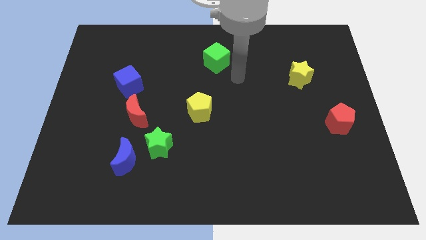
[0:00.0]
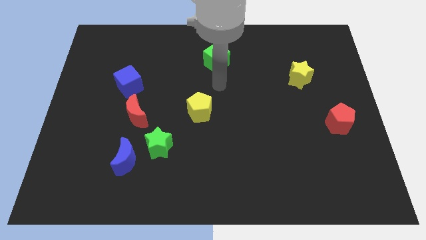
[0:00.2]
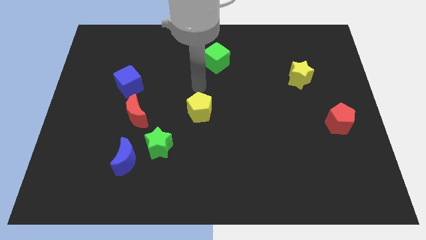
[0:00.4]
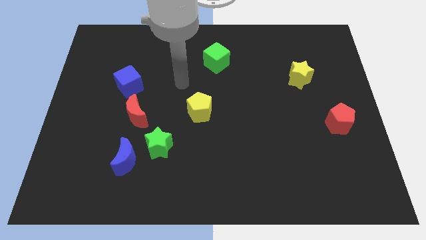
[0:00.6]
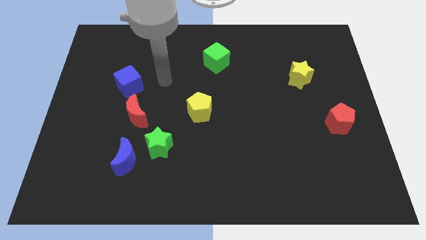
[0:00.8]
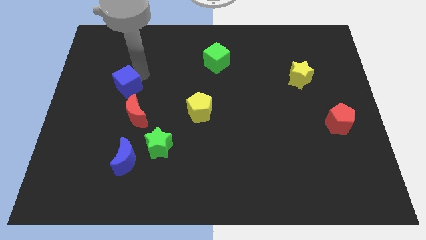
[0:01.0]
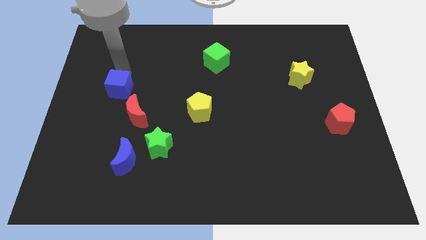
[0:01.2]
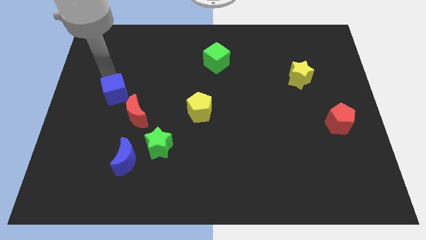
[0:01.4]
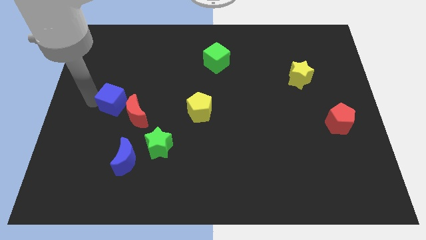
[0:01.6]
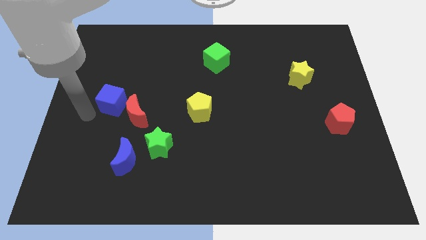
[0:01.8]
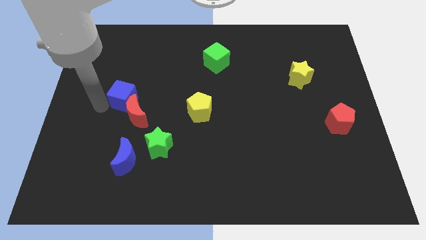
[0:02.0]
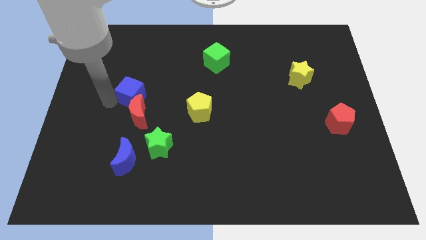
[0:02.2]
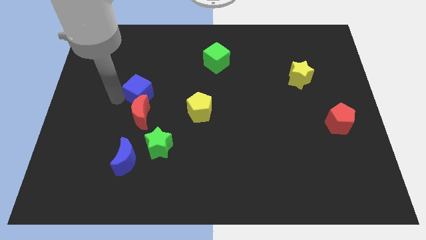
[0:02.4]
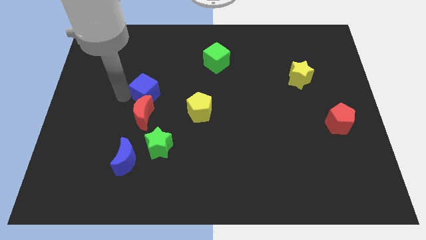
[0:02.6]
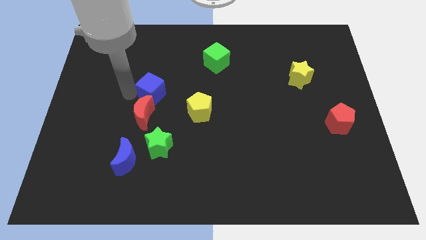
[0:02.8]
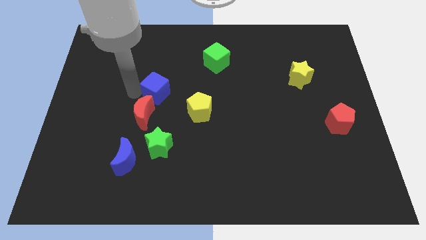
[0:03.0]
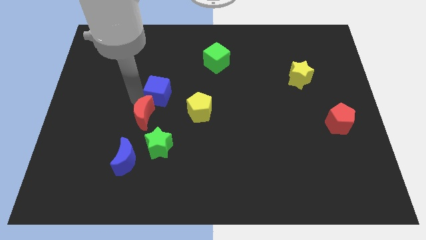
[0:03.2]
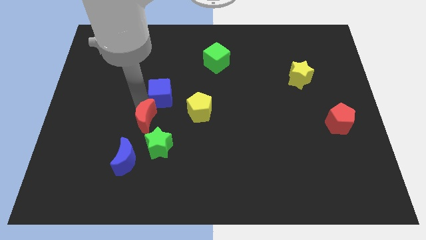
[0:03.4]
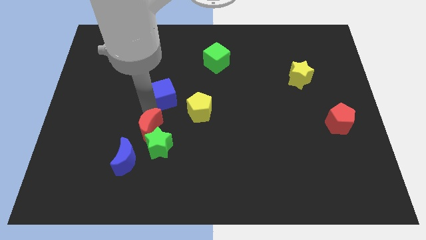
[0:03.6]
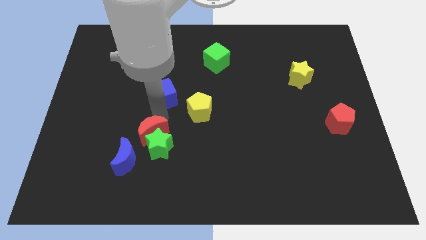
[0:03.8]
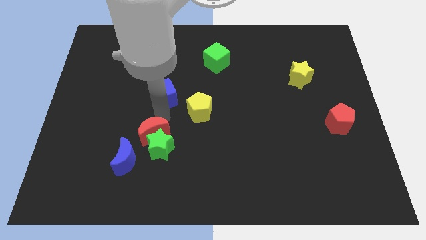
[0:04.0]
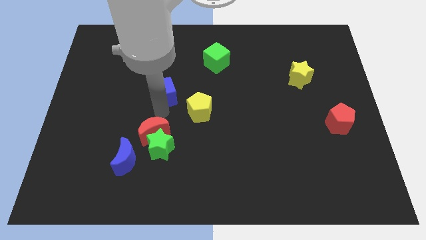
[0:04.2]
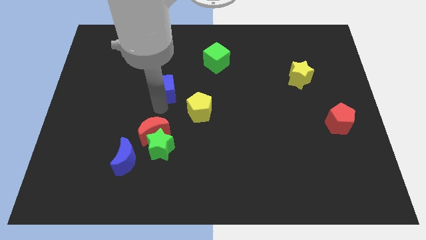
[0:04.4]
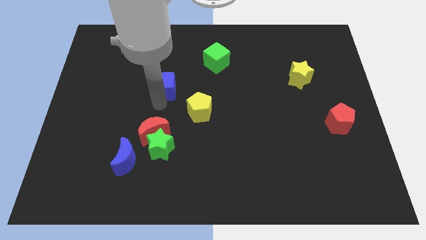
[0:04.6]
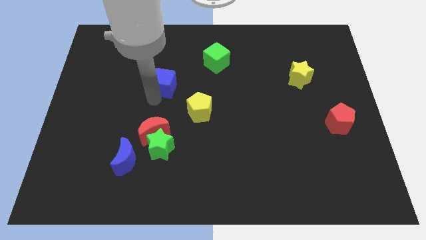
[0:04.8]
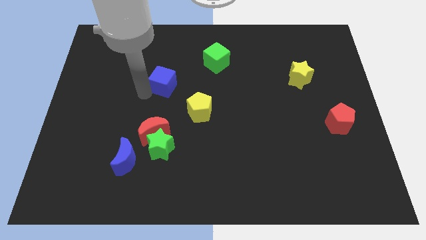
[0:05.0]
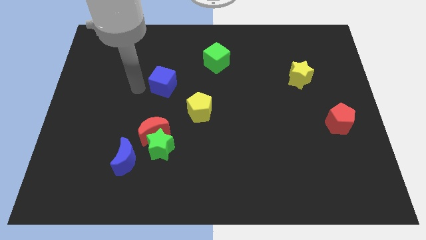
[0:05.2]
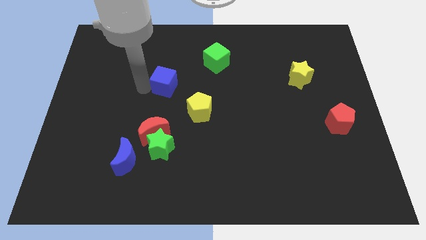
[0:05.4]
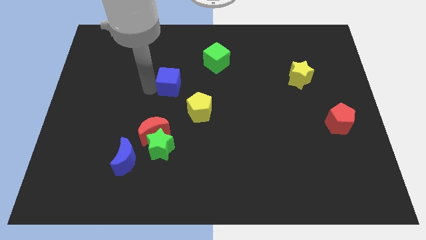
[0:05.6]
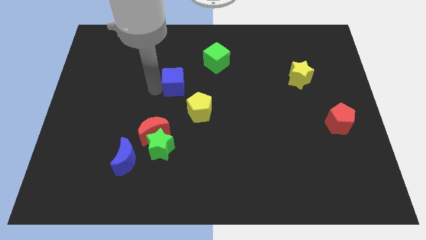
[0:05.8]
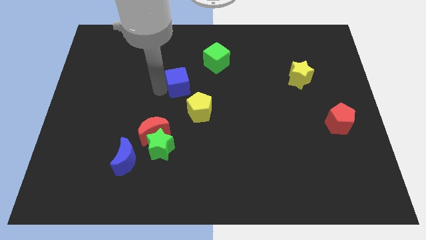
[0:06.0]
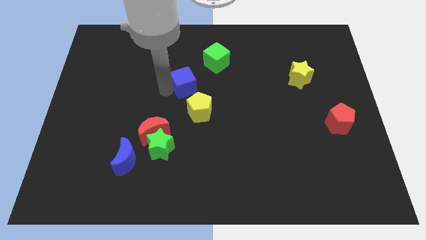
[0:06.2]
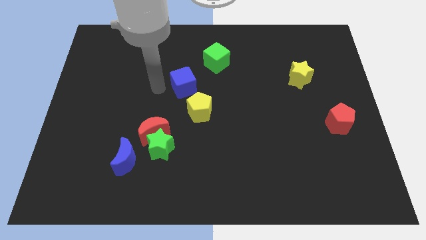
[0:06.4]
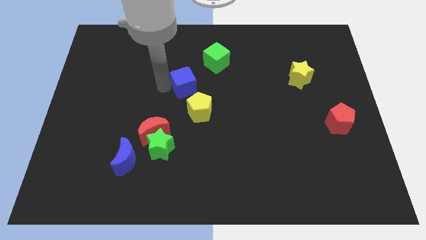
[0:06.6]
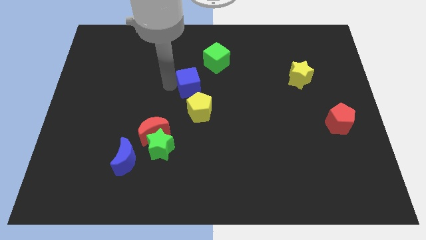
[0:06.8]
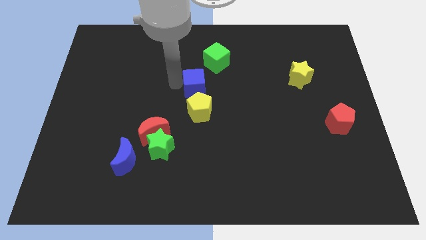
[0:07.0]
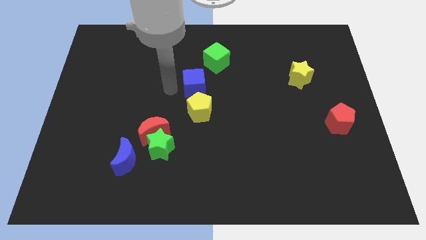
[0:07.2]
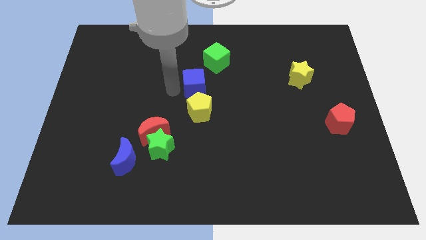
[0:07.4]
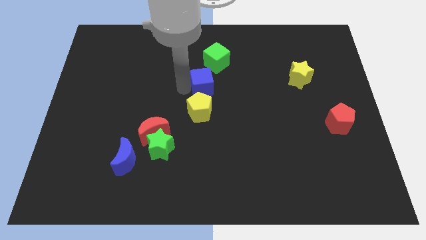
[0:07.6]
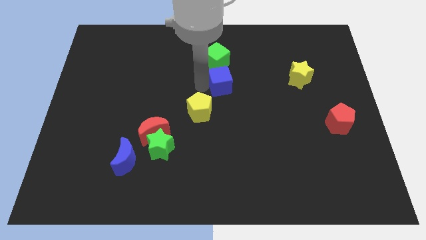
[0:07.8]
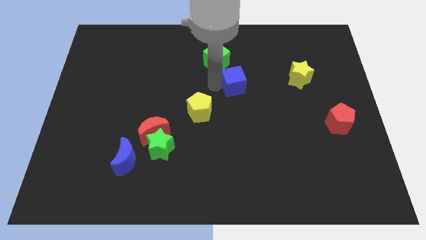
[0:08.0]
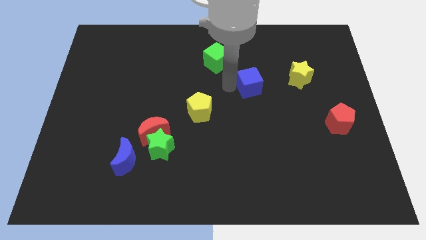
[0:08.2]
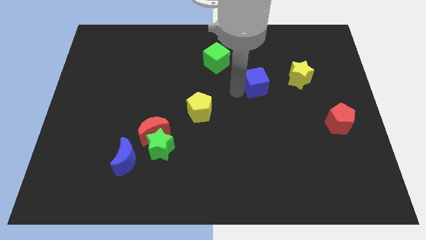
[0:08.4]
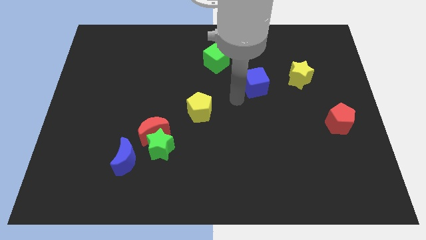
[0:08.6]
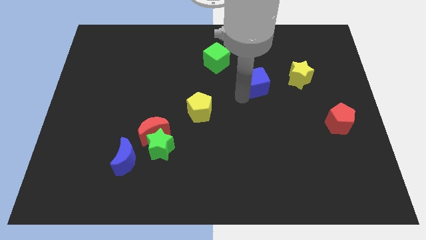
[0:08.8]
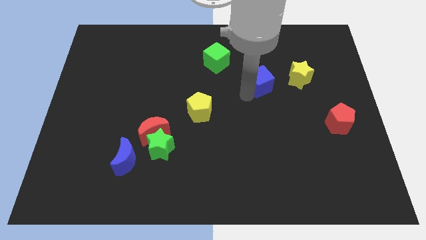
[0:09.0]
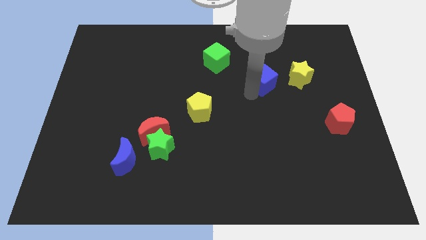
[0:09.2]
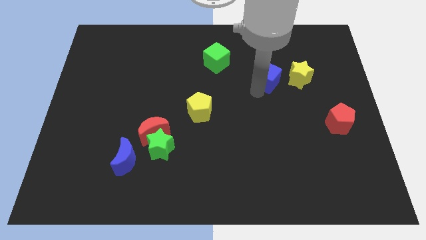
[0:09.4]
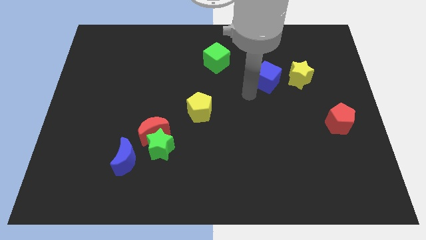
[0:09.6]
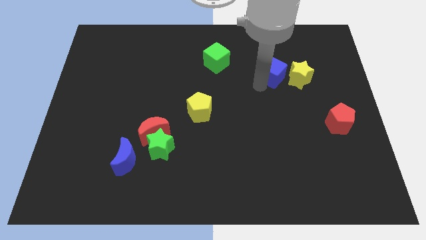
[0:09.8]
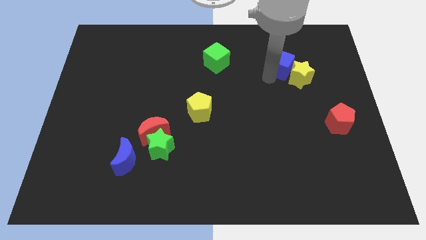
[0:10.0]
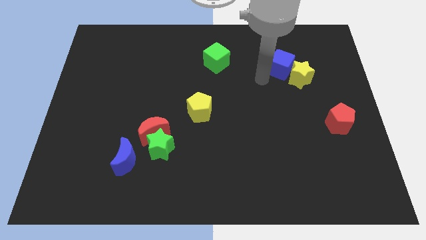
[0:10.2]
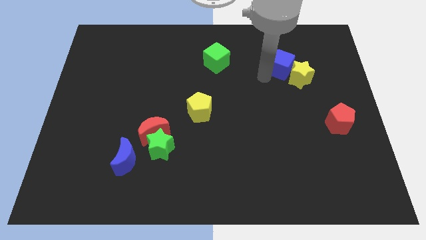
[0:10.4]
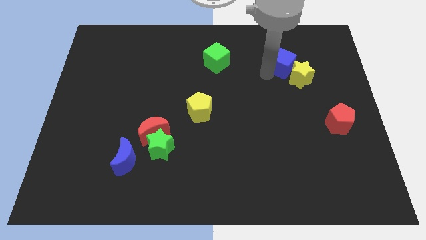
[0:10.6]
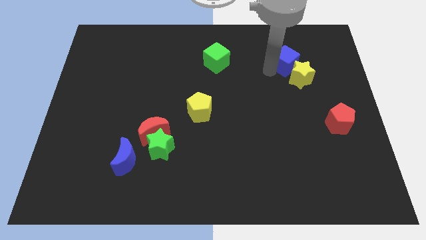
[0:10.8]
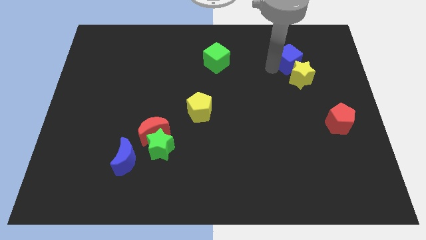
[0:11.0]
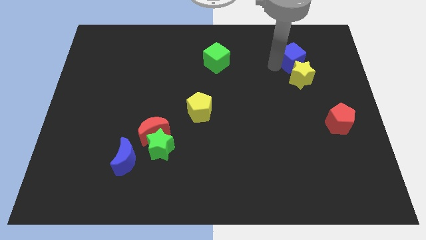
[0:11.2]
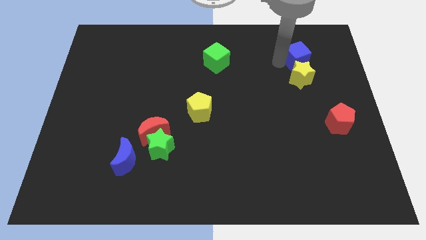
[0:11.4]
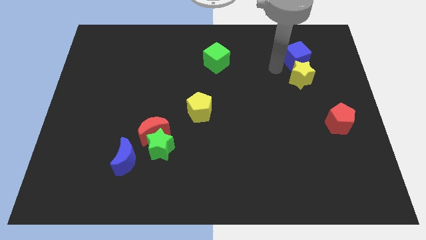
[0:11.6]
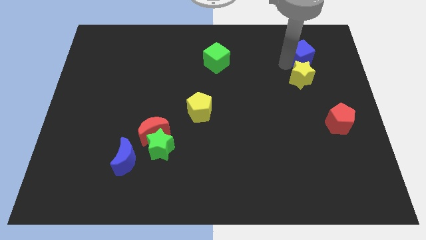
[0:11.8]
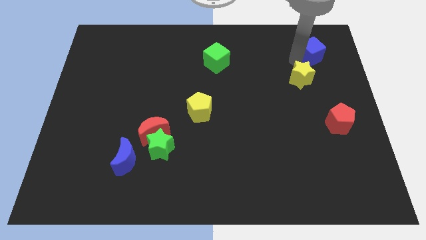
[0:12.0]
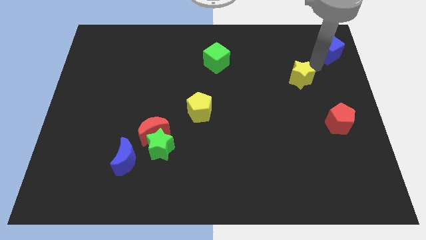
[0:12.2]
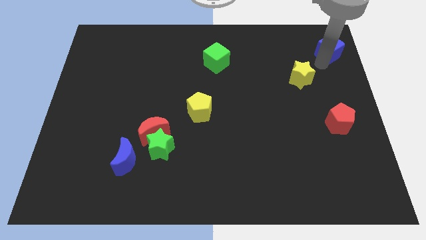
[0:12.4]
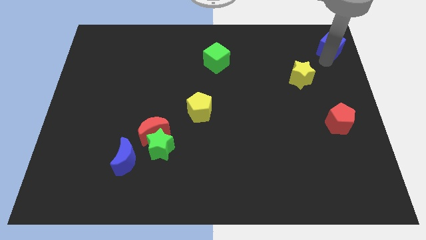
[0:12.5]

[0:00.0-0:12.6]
move the blue cube to the top right corner
